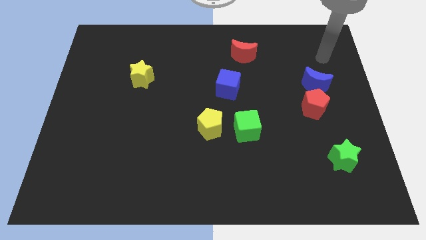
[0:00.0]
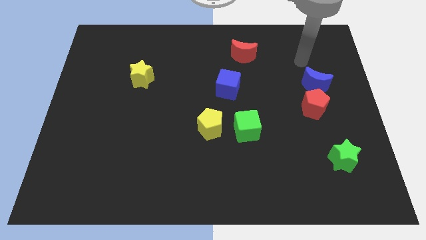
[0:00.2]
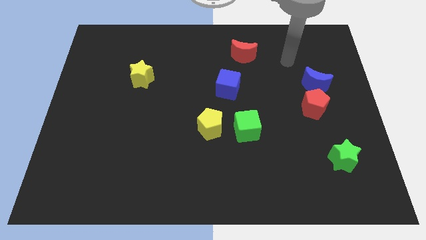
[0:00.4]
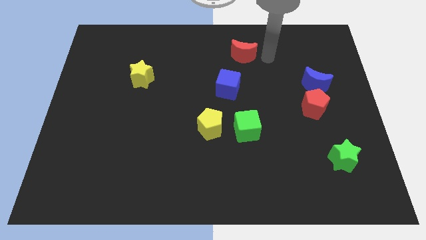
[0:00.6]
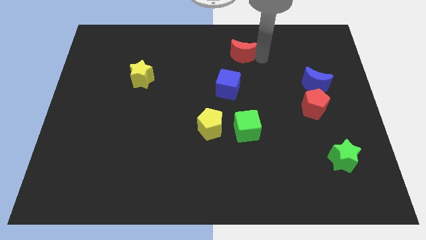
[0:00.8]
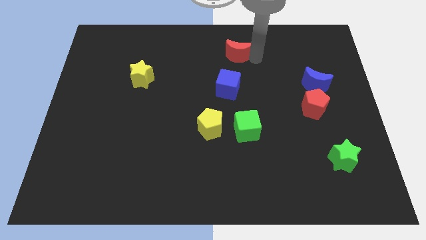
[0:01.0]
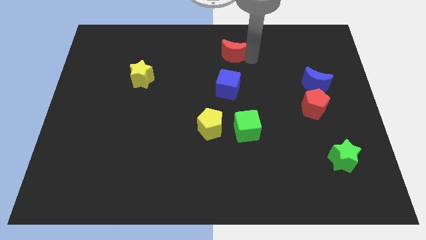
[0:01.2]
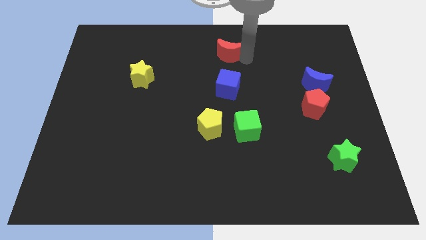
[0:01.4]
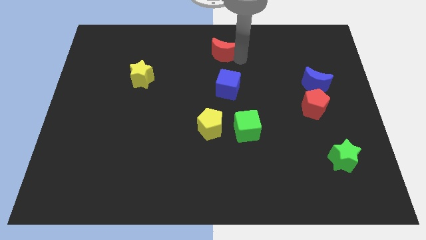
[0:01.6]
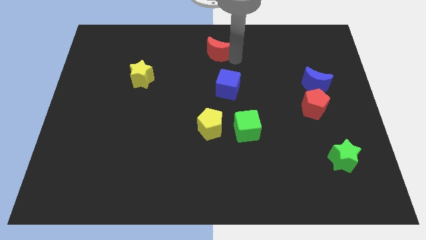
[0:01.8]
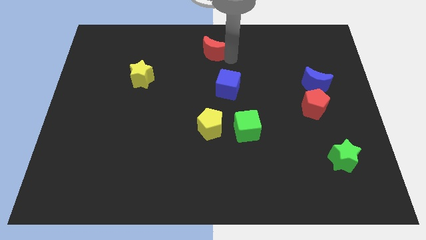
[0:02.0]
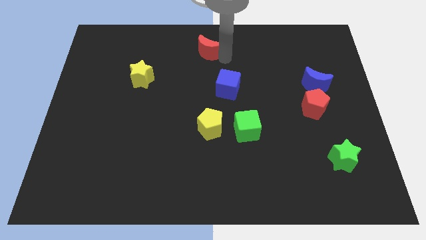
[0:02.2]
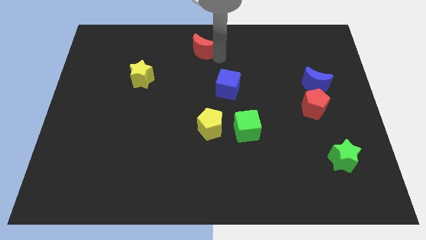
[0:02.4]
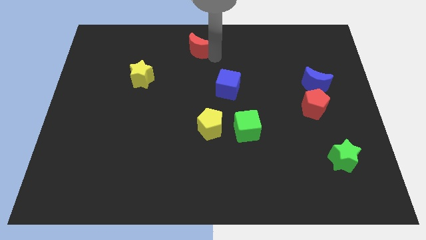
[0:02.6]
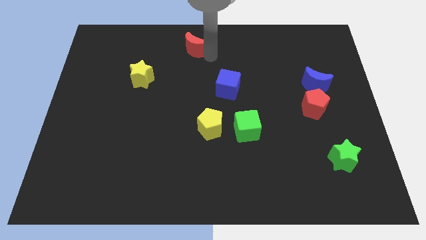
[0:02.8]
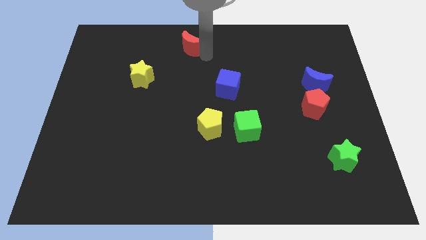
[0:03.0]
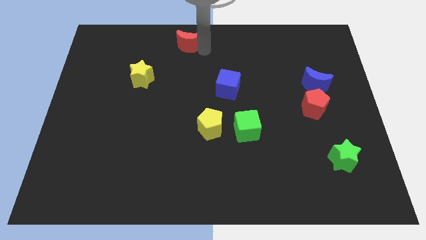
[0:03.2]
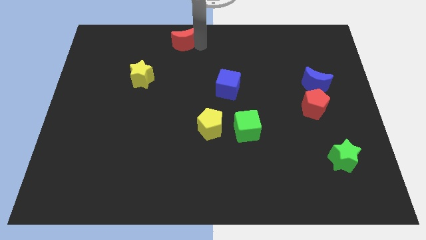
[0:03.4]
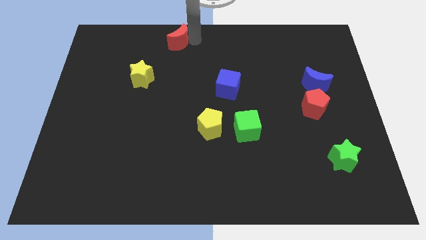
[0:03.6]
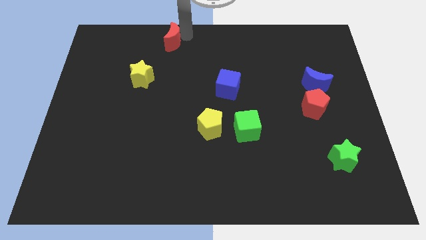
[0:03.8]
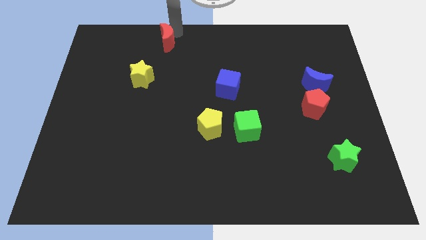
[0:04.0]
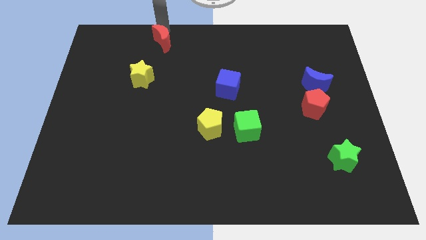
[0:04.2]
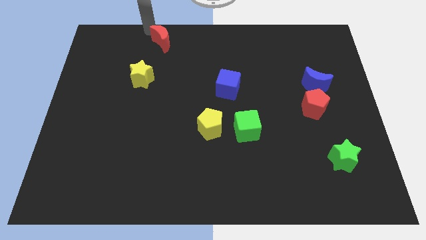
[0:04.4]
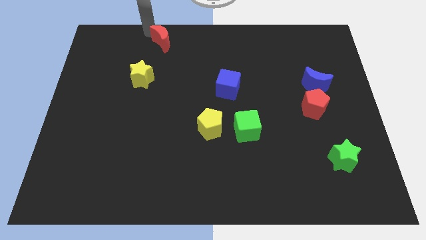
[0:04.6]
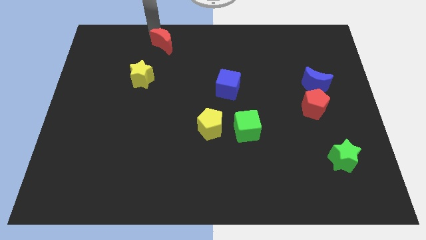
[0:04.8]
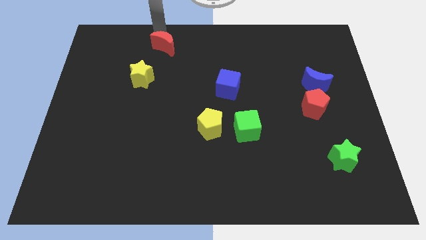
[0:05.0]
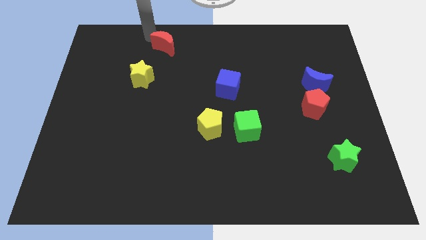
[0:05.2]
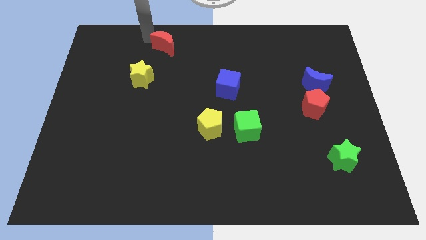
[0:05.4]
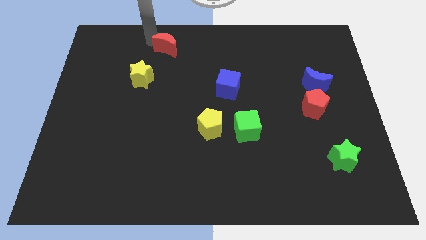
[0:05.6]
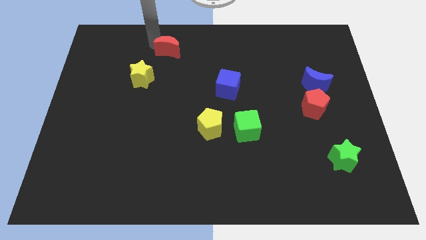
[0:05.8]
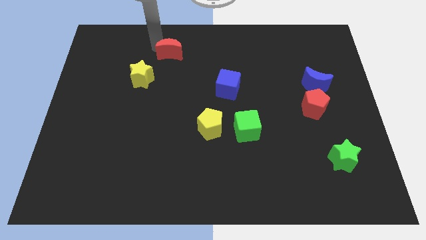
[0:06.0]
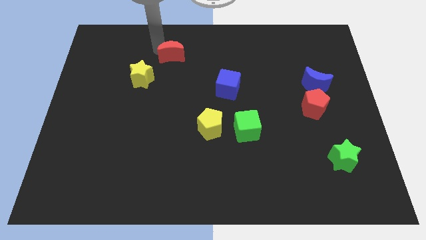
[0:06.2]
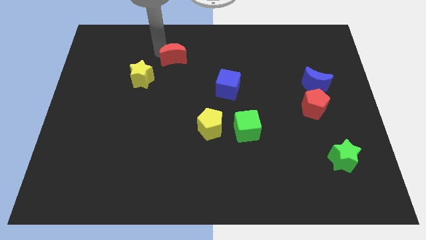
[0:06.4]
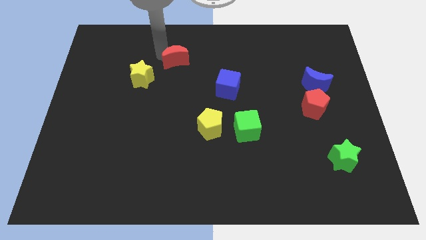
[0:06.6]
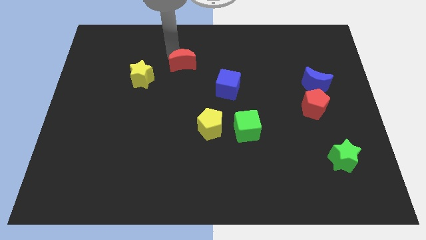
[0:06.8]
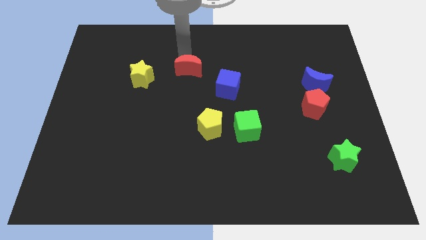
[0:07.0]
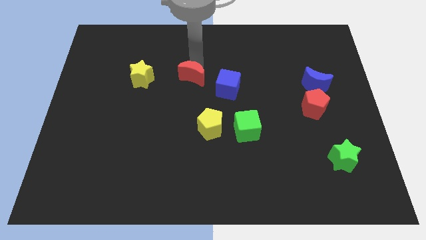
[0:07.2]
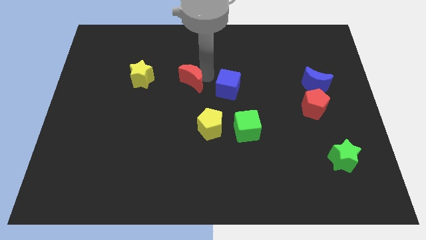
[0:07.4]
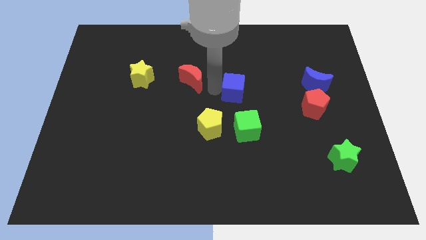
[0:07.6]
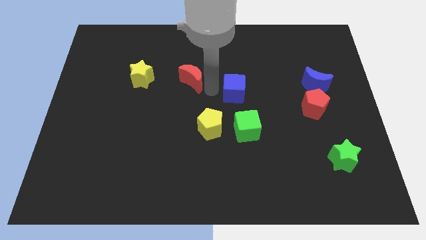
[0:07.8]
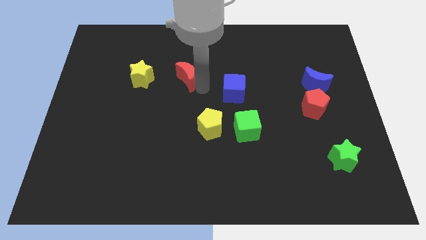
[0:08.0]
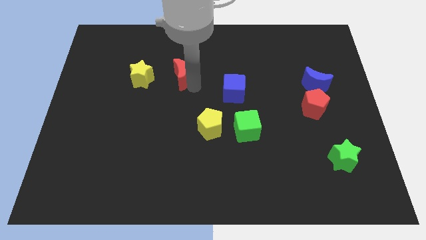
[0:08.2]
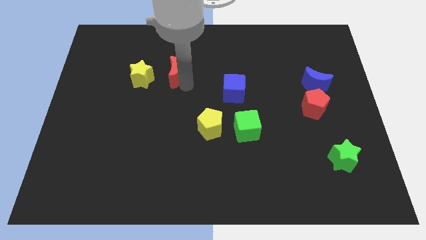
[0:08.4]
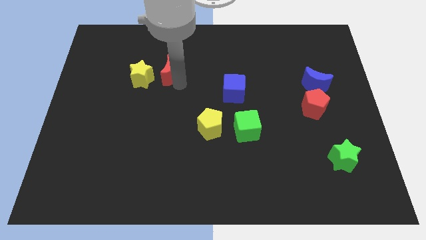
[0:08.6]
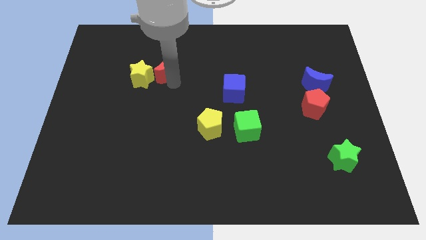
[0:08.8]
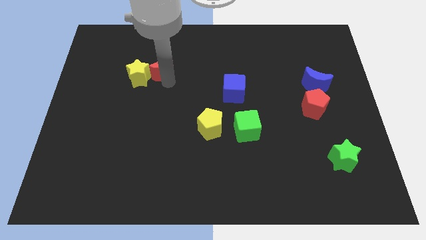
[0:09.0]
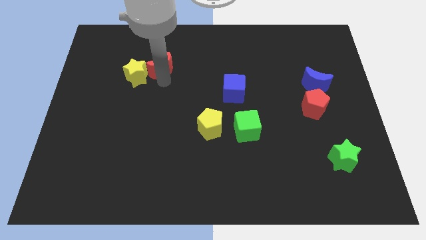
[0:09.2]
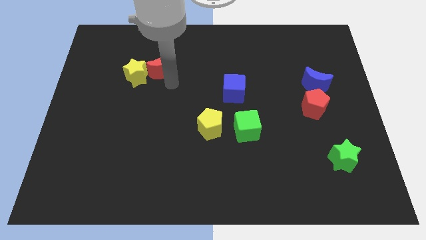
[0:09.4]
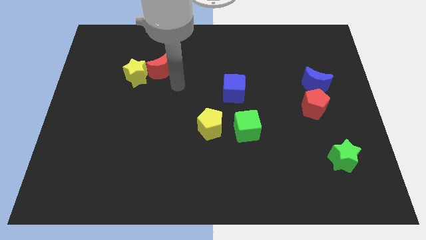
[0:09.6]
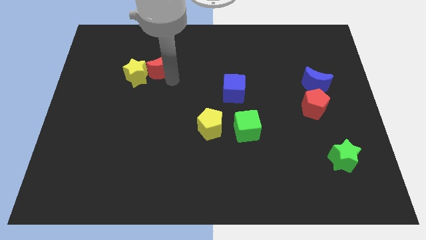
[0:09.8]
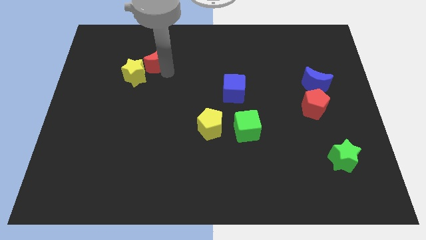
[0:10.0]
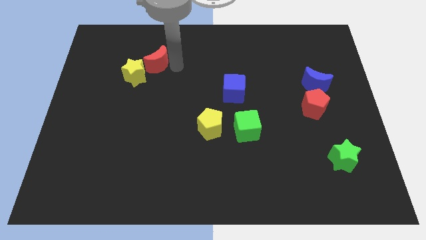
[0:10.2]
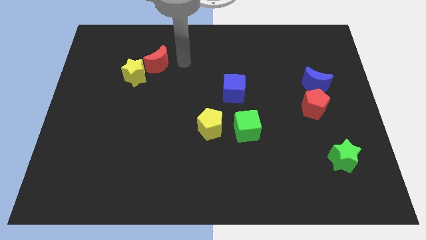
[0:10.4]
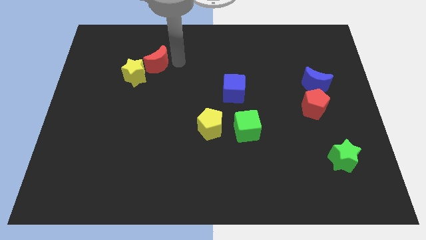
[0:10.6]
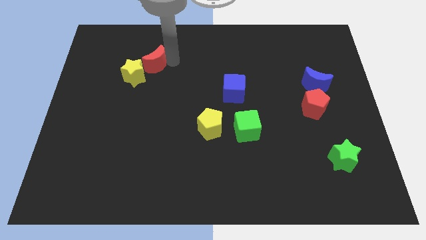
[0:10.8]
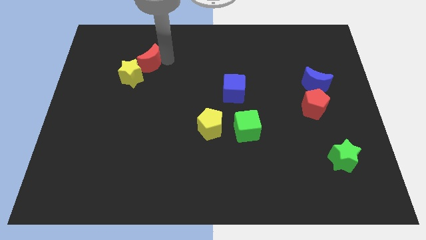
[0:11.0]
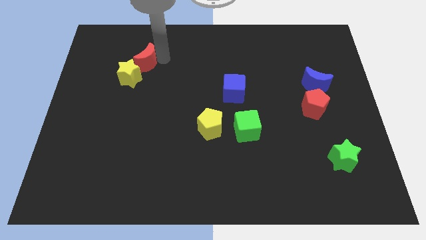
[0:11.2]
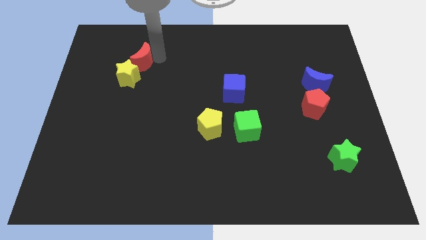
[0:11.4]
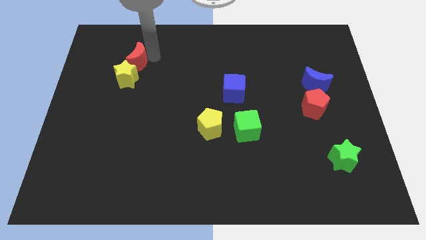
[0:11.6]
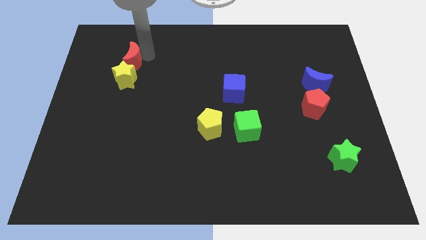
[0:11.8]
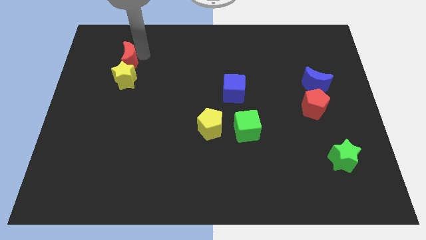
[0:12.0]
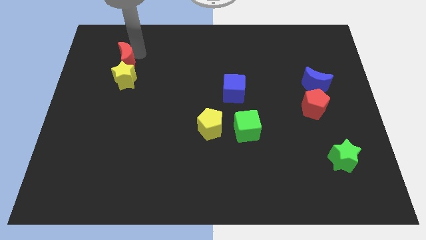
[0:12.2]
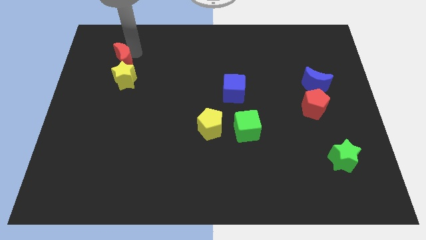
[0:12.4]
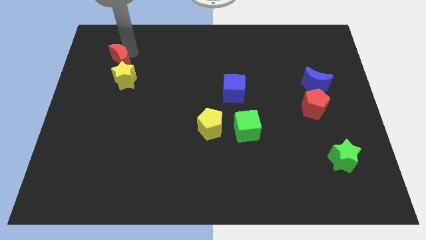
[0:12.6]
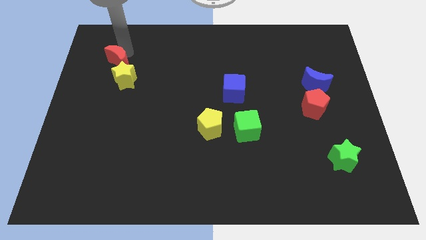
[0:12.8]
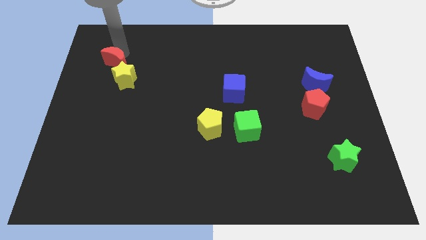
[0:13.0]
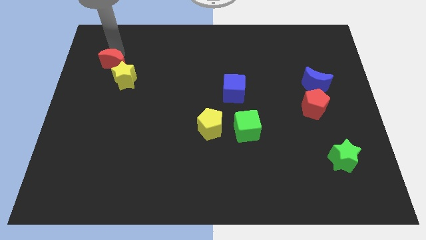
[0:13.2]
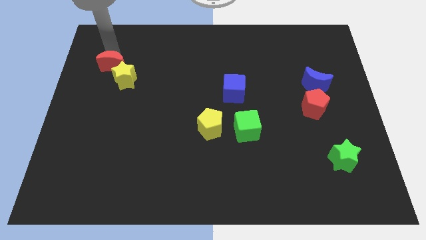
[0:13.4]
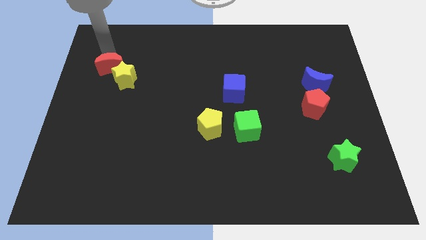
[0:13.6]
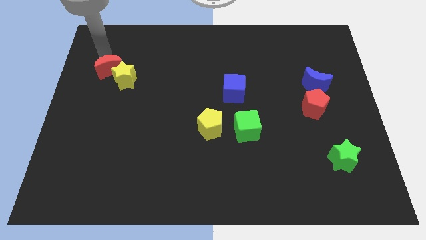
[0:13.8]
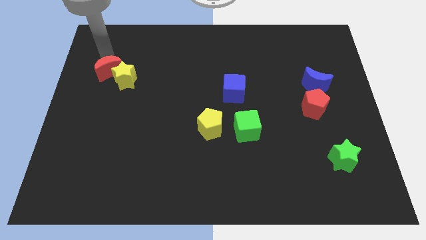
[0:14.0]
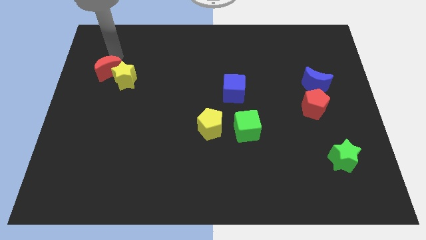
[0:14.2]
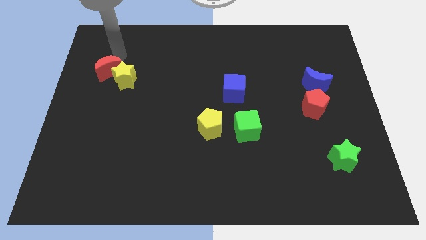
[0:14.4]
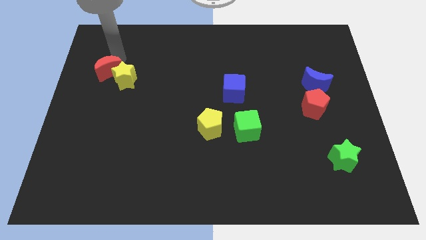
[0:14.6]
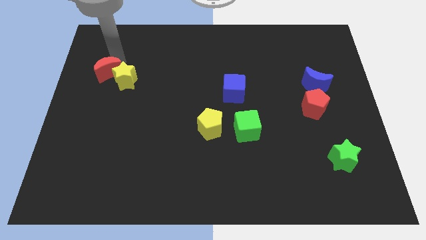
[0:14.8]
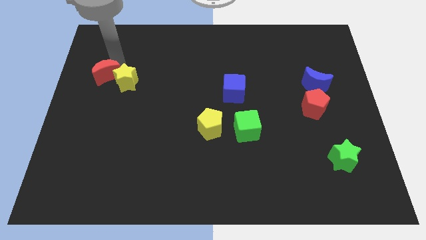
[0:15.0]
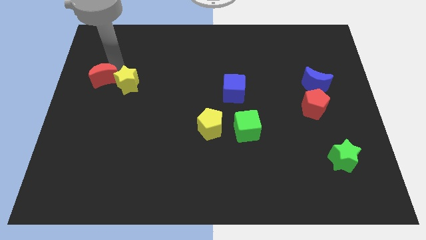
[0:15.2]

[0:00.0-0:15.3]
put the red moon to the left side of the board
